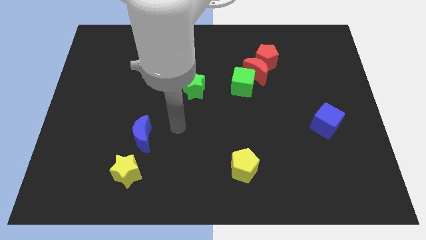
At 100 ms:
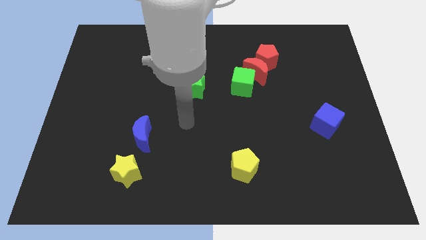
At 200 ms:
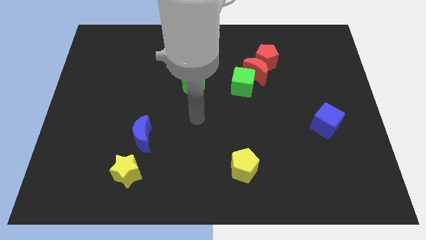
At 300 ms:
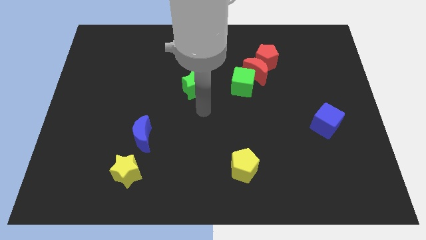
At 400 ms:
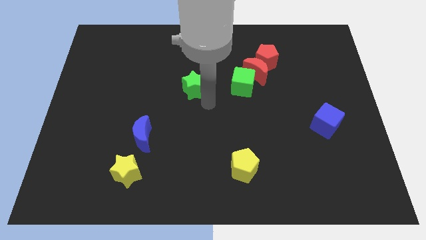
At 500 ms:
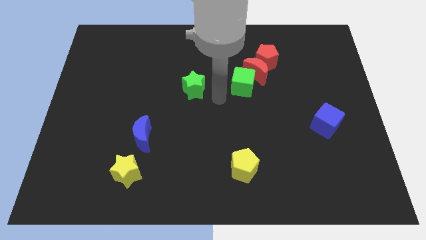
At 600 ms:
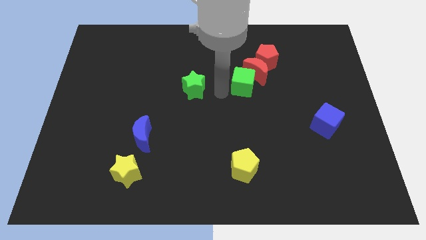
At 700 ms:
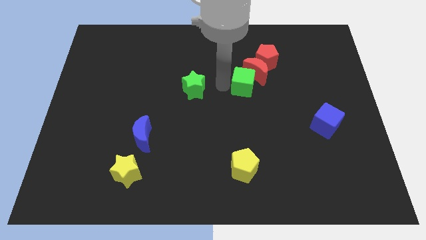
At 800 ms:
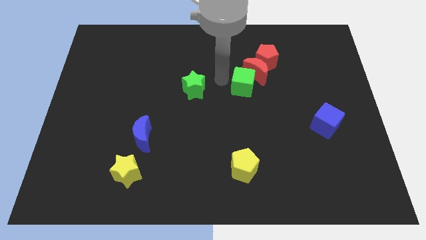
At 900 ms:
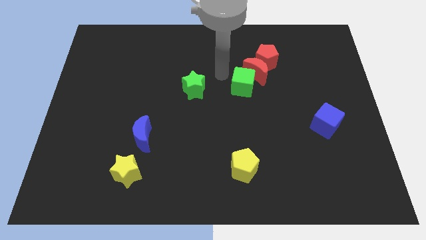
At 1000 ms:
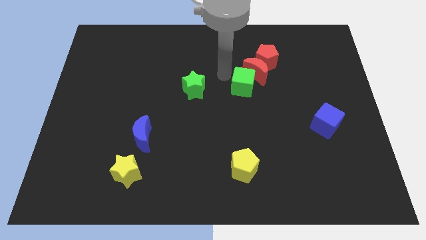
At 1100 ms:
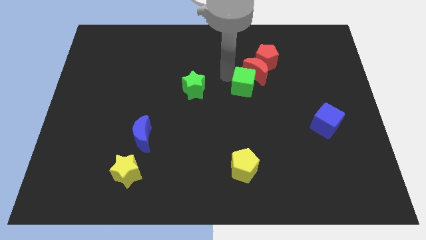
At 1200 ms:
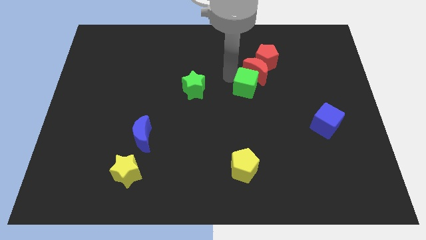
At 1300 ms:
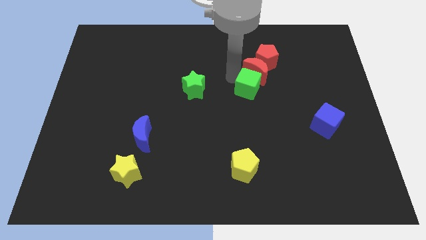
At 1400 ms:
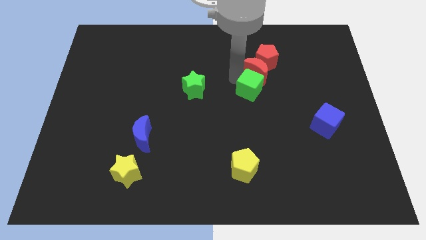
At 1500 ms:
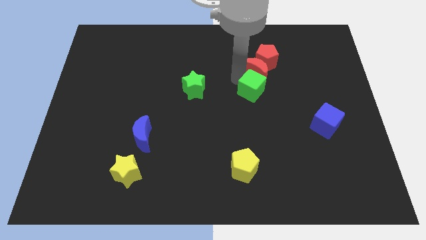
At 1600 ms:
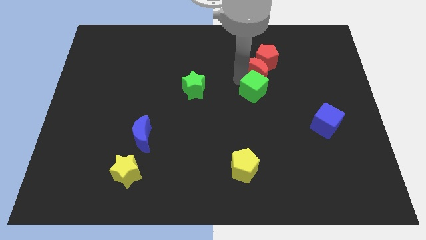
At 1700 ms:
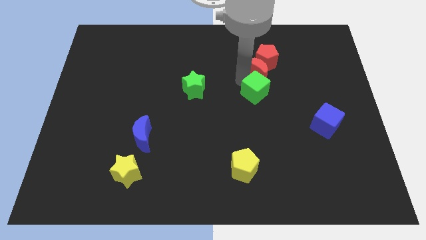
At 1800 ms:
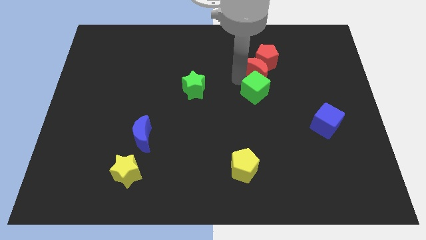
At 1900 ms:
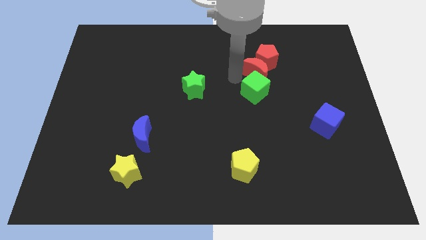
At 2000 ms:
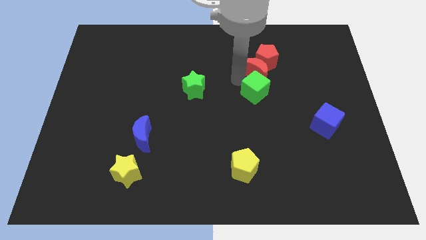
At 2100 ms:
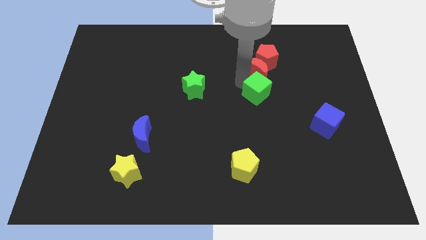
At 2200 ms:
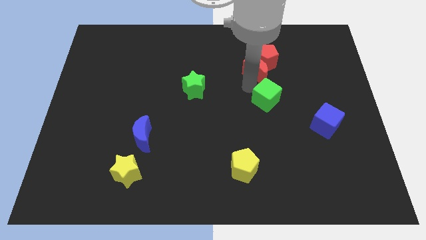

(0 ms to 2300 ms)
move the green cube diagonally downwards and to the right a bit

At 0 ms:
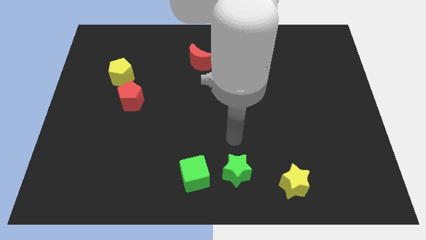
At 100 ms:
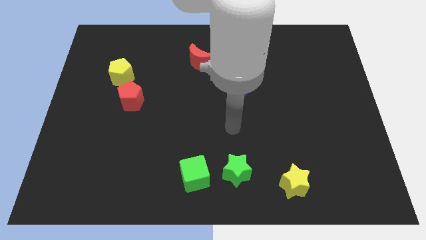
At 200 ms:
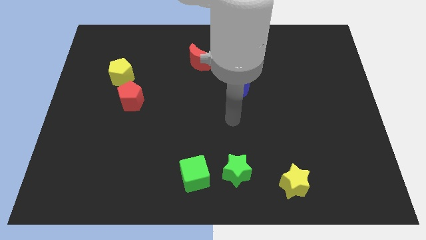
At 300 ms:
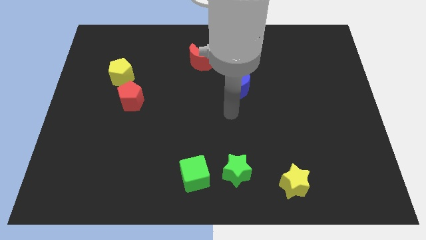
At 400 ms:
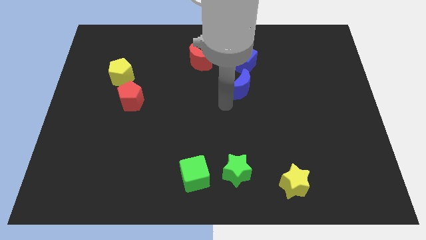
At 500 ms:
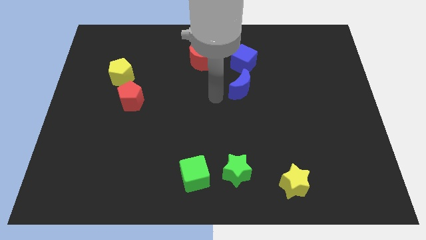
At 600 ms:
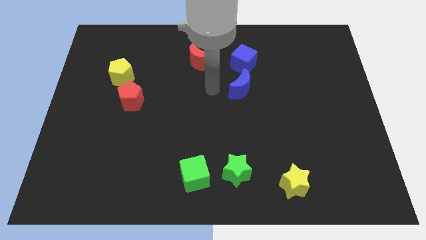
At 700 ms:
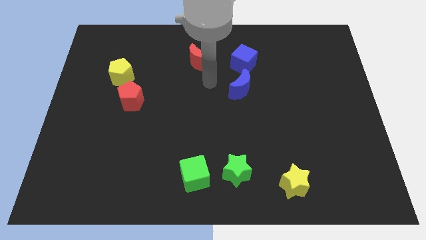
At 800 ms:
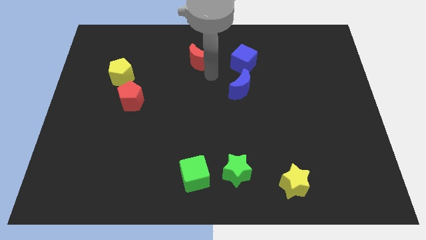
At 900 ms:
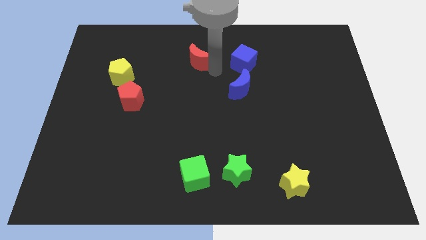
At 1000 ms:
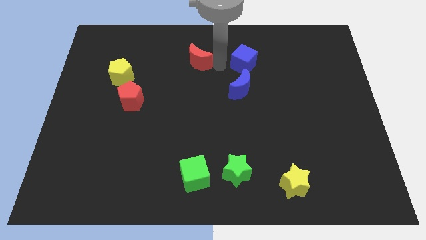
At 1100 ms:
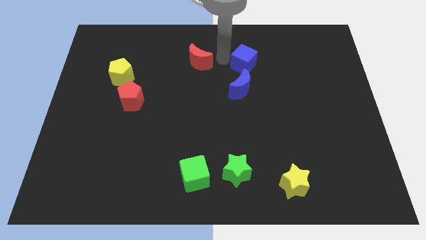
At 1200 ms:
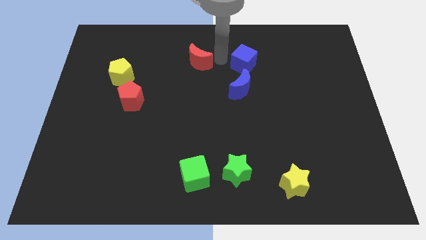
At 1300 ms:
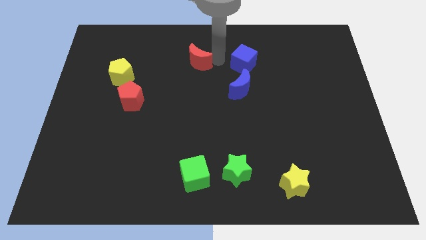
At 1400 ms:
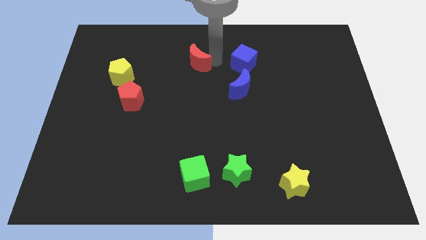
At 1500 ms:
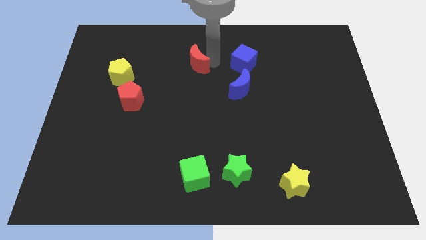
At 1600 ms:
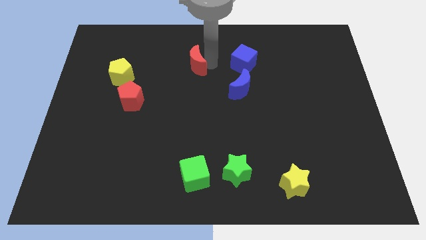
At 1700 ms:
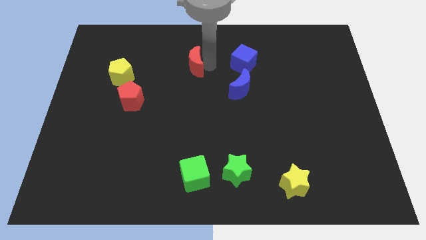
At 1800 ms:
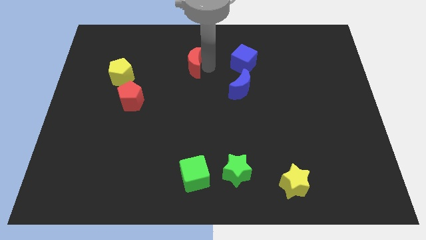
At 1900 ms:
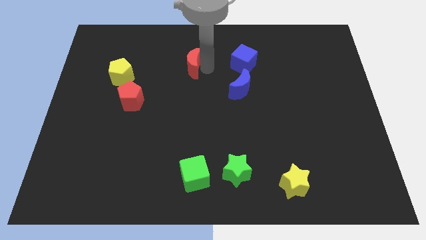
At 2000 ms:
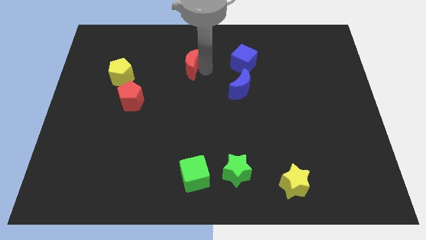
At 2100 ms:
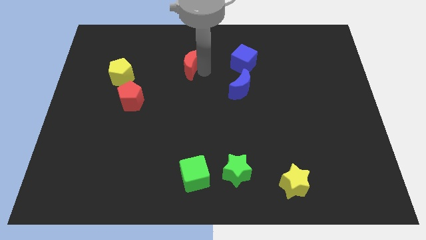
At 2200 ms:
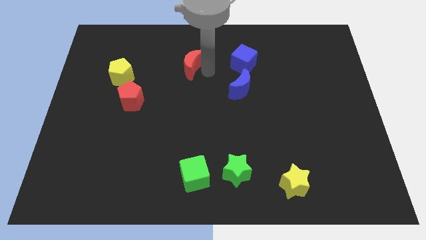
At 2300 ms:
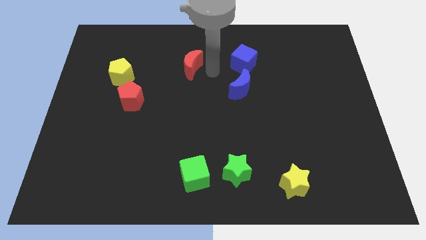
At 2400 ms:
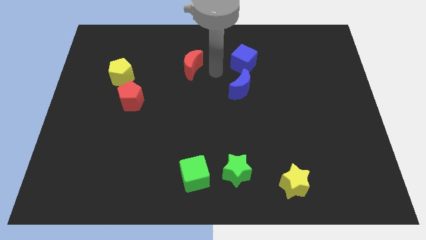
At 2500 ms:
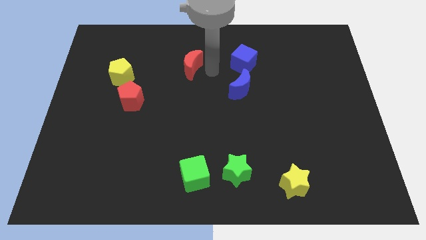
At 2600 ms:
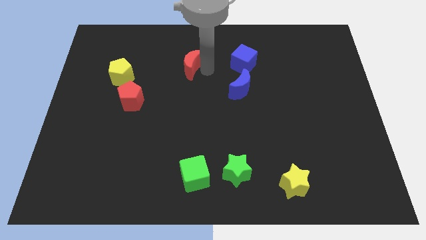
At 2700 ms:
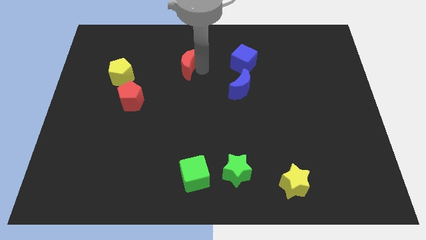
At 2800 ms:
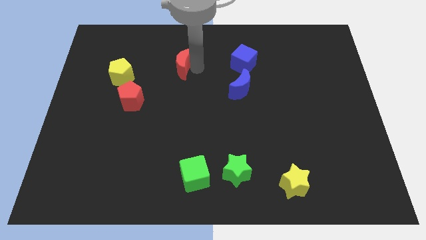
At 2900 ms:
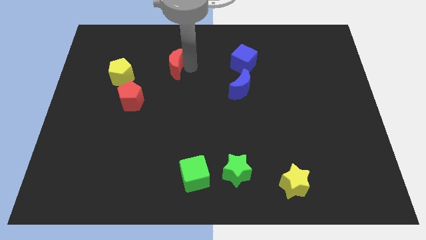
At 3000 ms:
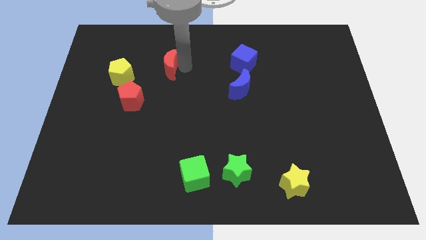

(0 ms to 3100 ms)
slide the red moon left a bit

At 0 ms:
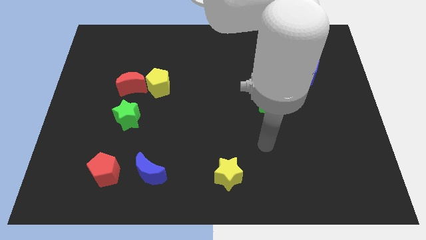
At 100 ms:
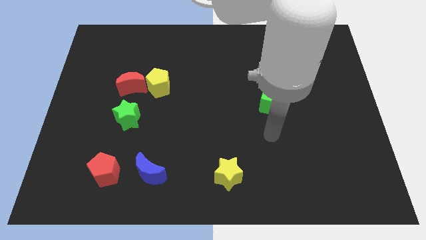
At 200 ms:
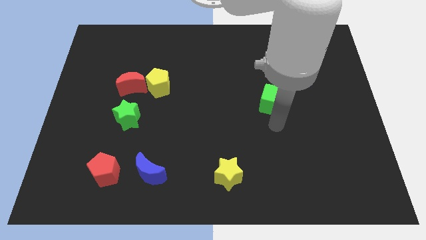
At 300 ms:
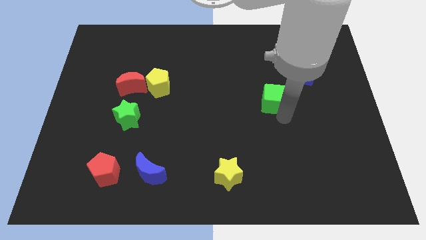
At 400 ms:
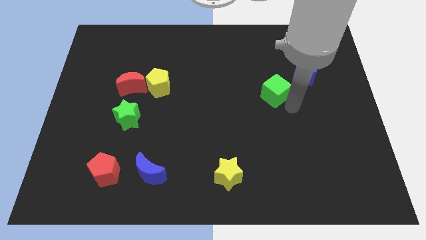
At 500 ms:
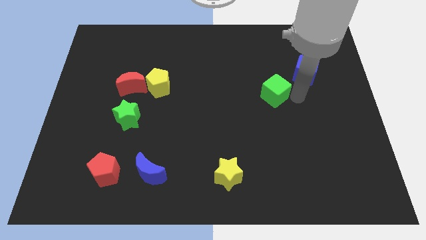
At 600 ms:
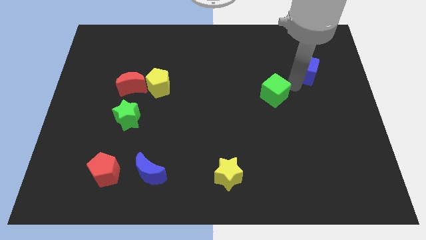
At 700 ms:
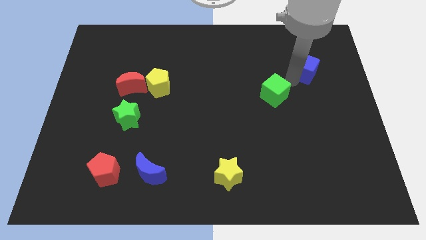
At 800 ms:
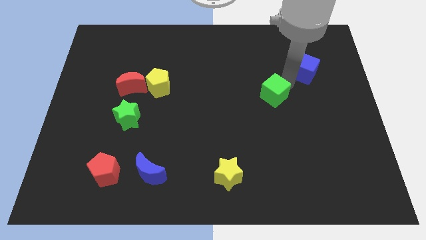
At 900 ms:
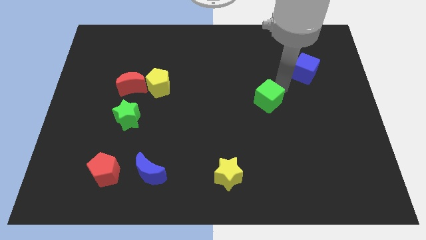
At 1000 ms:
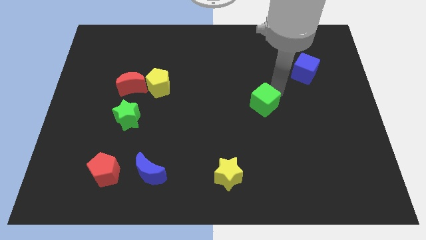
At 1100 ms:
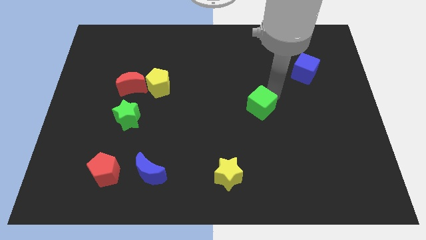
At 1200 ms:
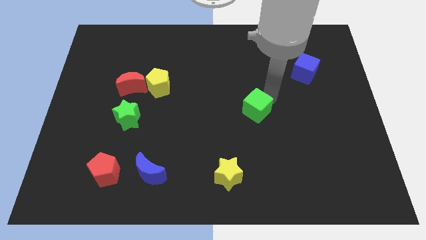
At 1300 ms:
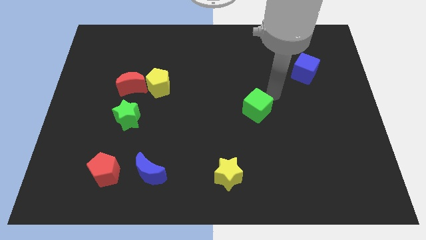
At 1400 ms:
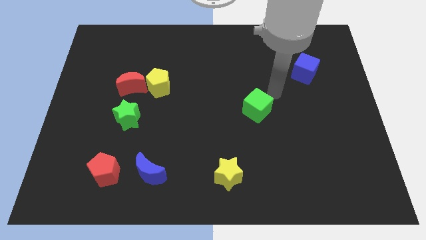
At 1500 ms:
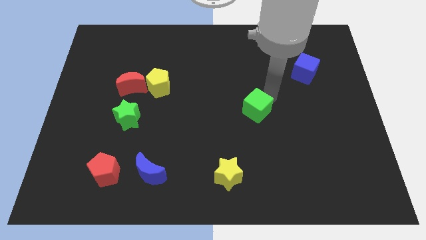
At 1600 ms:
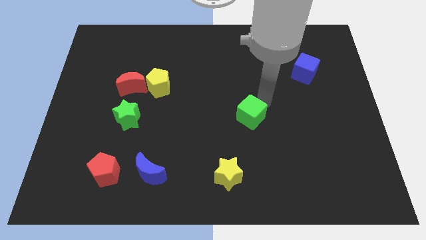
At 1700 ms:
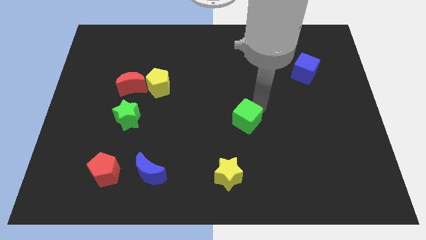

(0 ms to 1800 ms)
push the green cube down and to the left a bit

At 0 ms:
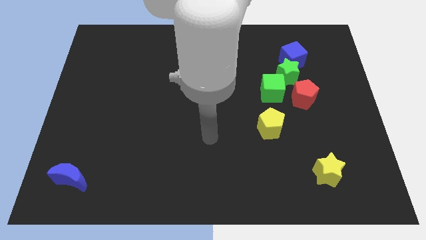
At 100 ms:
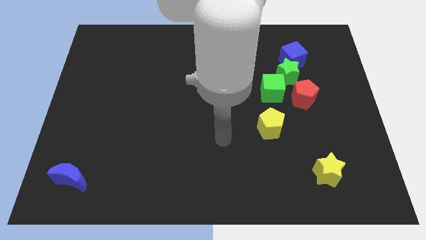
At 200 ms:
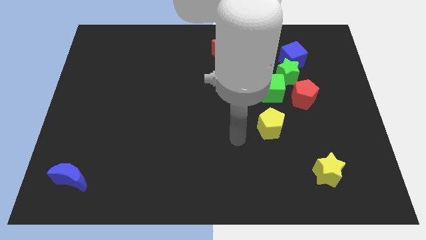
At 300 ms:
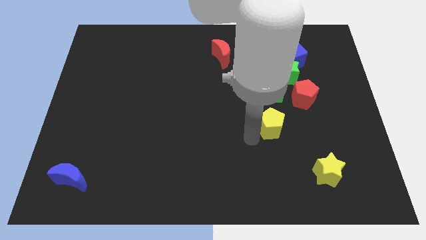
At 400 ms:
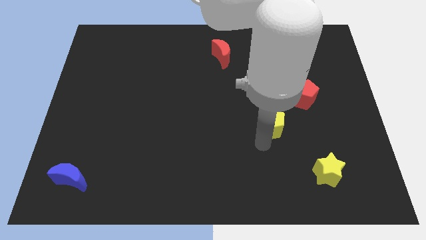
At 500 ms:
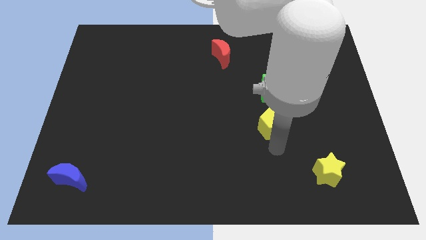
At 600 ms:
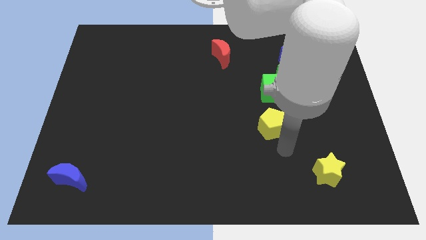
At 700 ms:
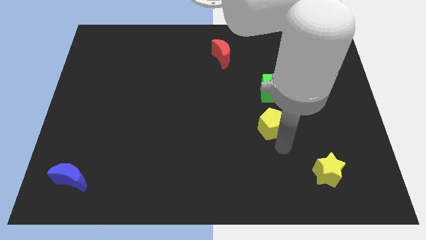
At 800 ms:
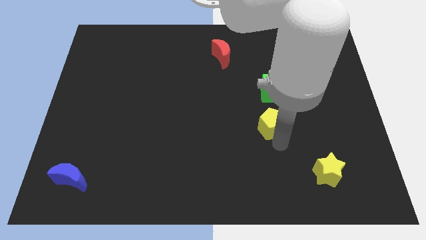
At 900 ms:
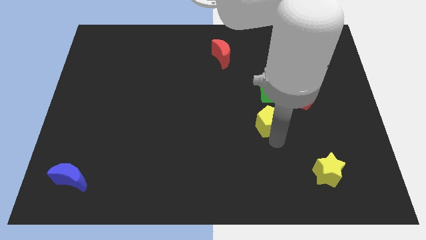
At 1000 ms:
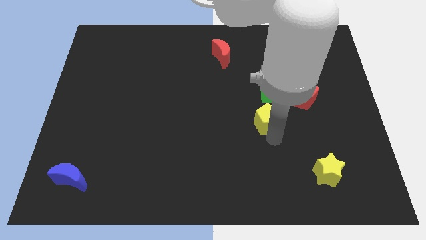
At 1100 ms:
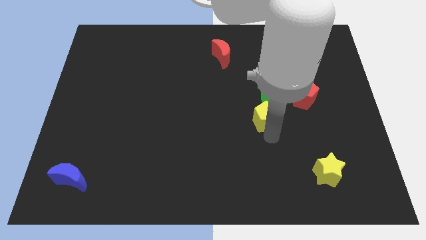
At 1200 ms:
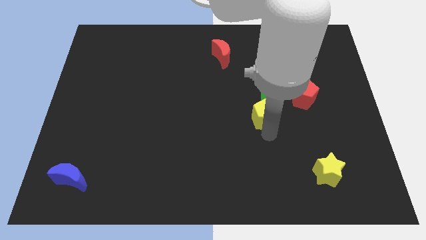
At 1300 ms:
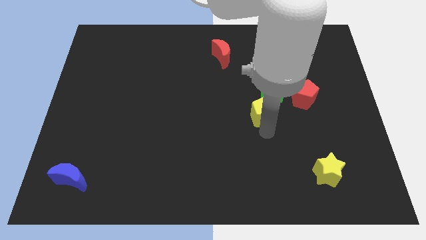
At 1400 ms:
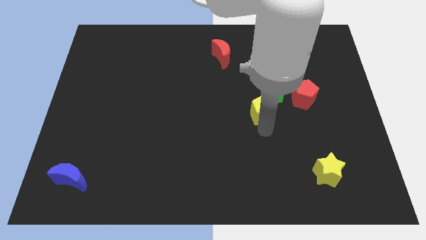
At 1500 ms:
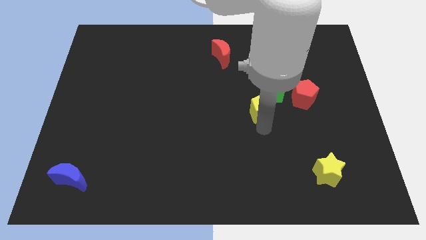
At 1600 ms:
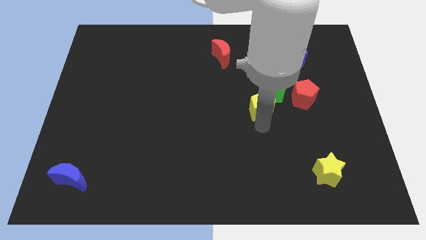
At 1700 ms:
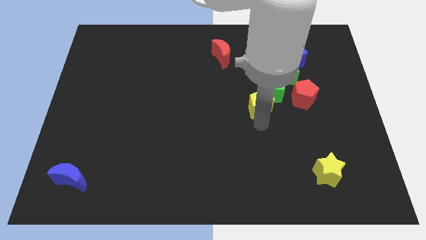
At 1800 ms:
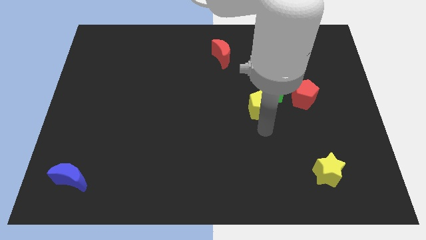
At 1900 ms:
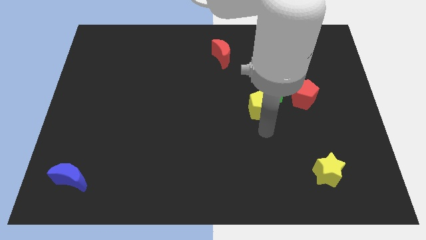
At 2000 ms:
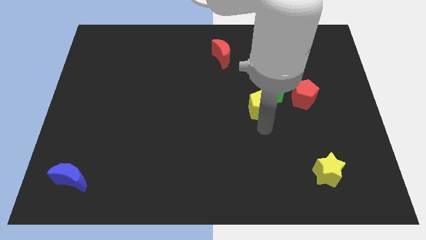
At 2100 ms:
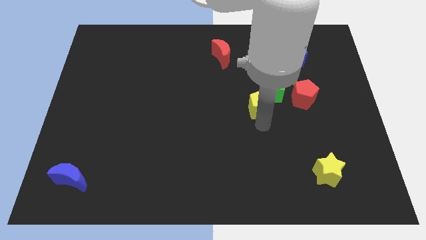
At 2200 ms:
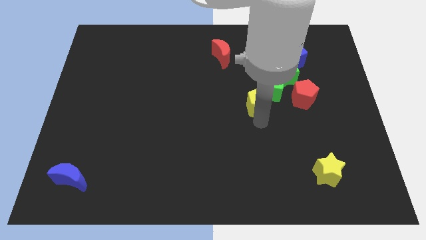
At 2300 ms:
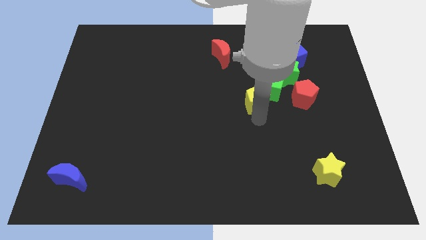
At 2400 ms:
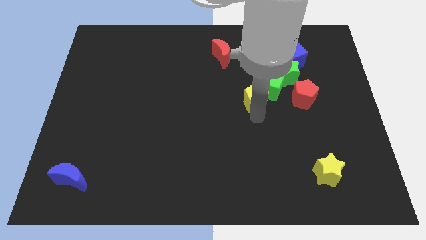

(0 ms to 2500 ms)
push the yellow pentagon up somewhat
